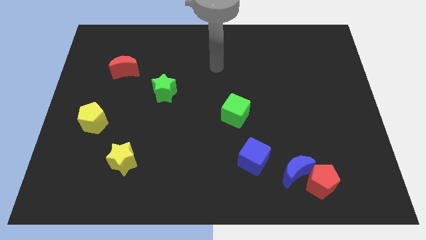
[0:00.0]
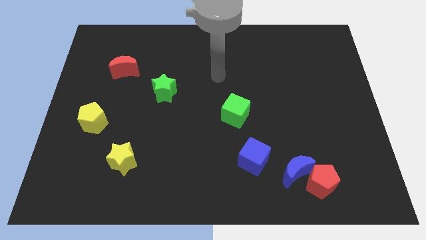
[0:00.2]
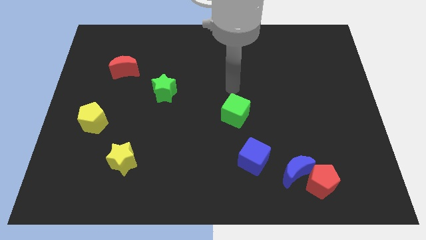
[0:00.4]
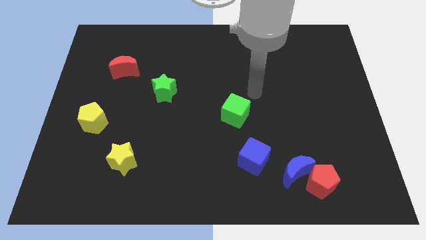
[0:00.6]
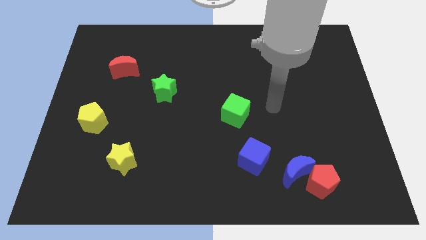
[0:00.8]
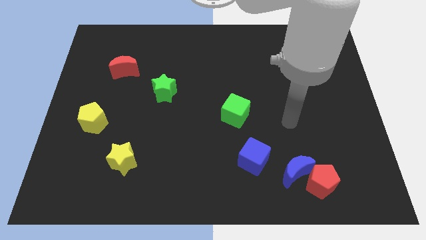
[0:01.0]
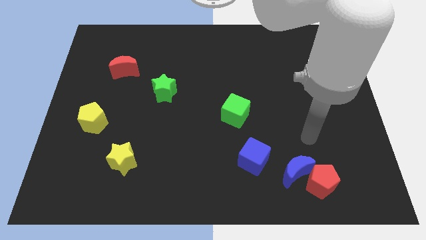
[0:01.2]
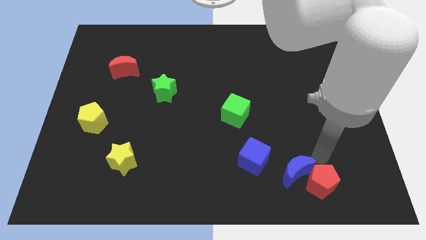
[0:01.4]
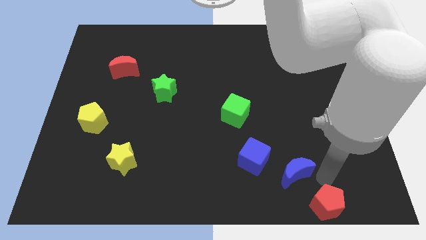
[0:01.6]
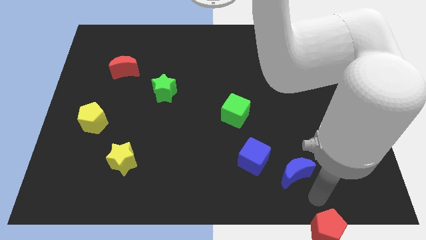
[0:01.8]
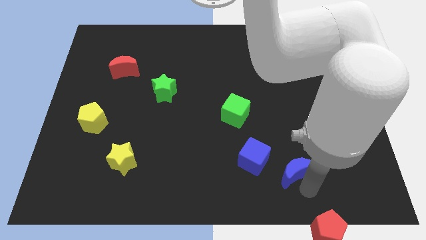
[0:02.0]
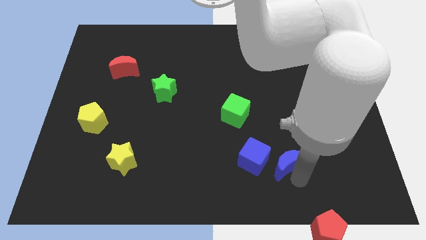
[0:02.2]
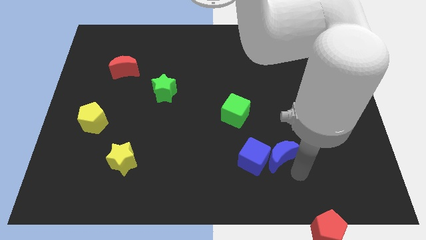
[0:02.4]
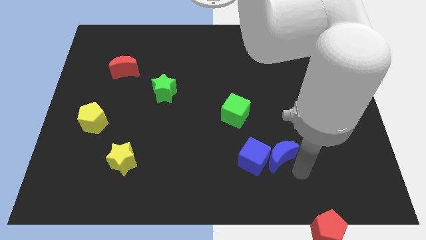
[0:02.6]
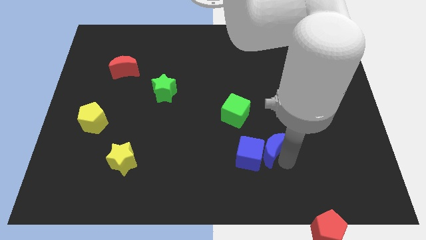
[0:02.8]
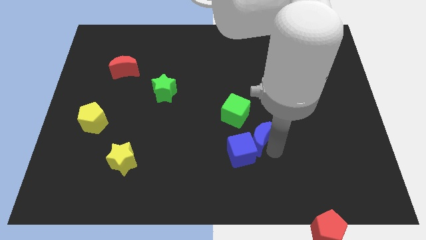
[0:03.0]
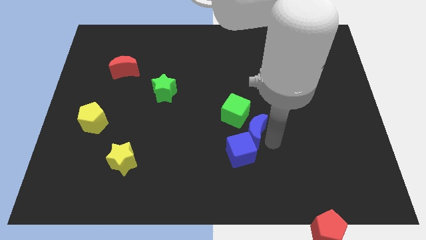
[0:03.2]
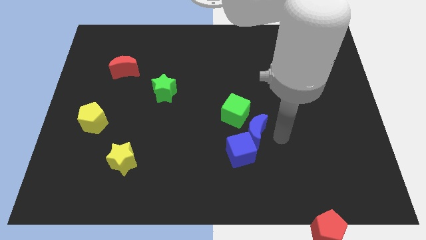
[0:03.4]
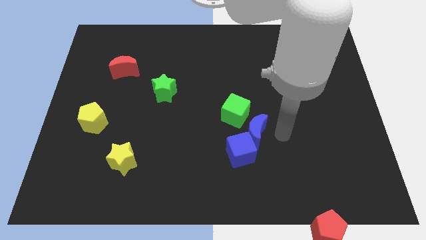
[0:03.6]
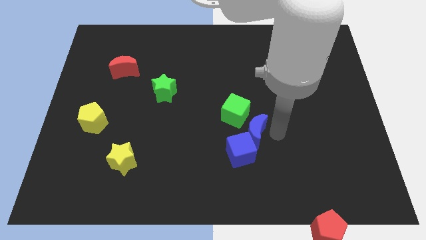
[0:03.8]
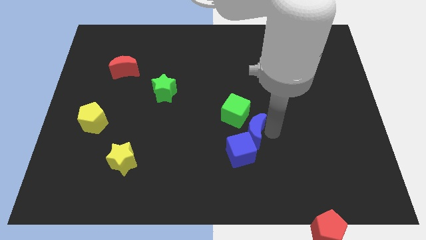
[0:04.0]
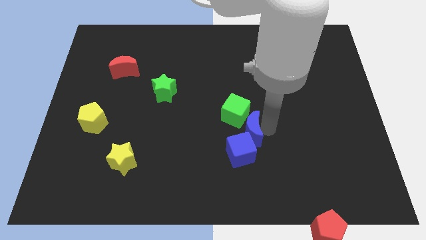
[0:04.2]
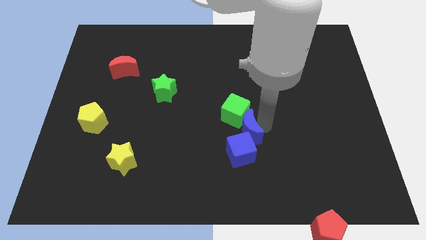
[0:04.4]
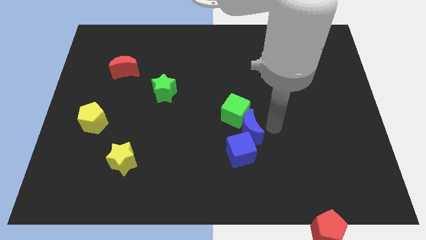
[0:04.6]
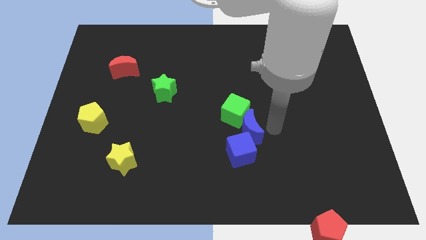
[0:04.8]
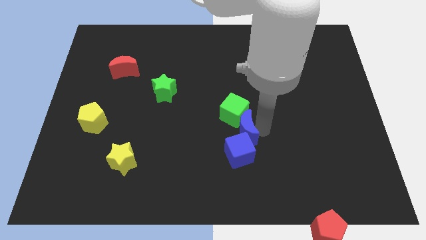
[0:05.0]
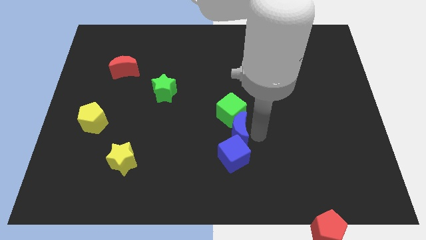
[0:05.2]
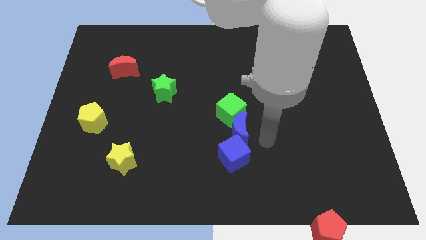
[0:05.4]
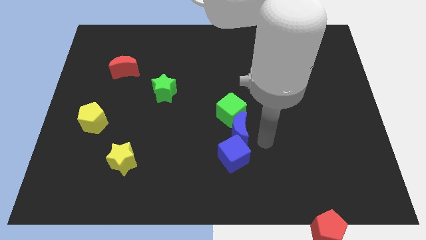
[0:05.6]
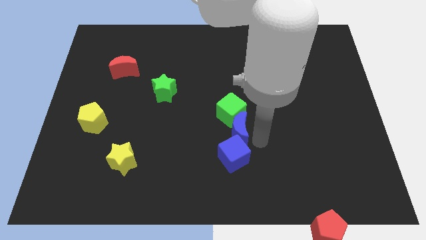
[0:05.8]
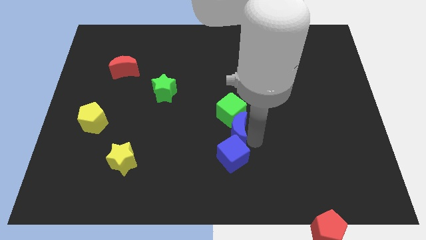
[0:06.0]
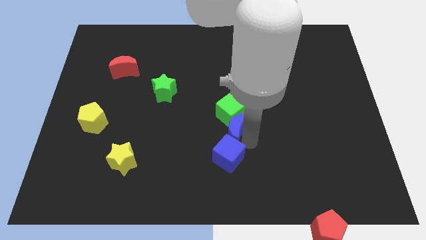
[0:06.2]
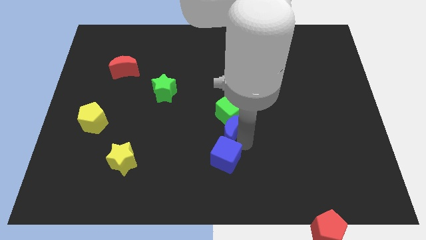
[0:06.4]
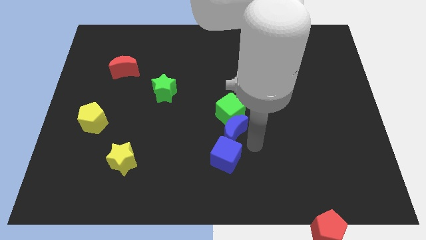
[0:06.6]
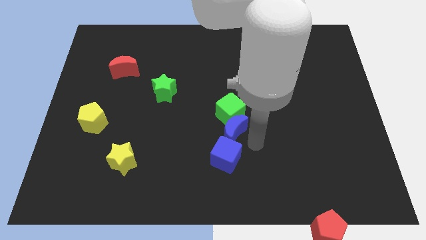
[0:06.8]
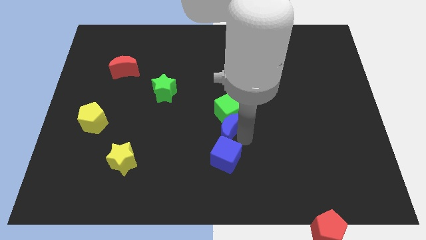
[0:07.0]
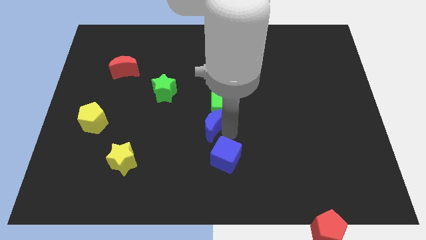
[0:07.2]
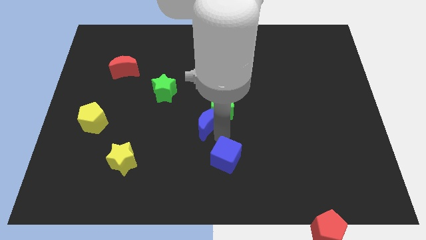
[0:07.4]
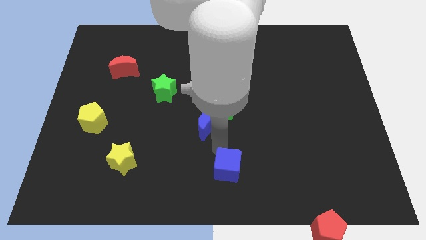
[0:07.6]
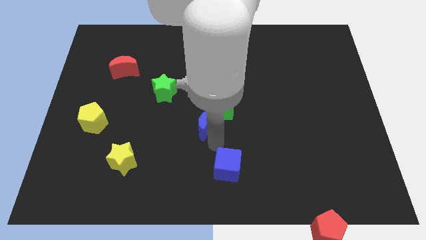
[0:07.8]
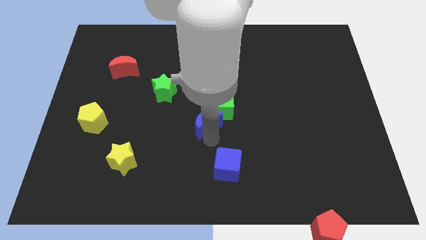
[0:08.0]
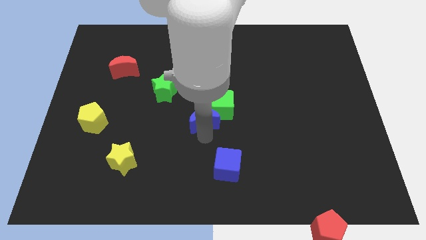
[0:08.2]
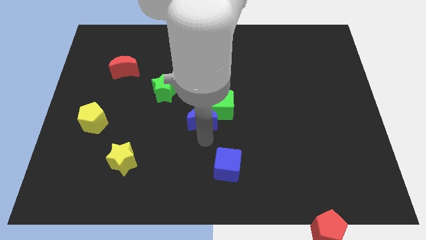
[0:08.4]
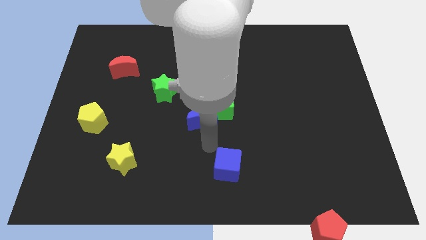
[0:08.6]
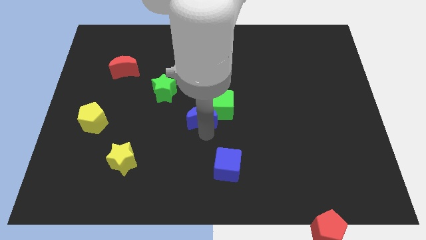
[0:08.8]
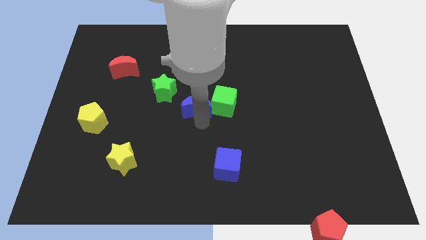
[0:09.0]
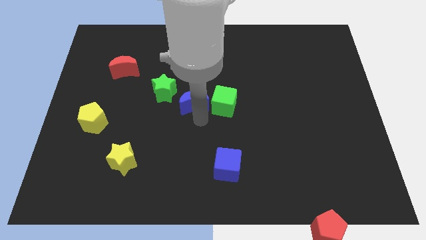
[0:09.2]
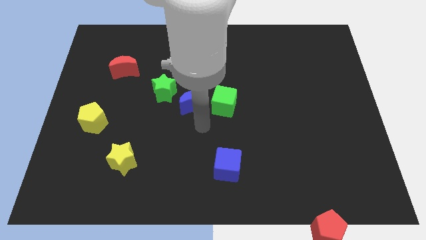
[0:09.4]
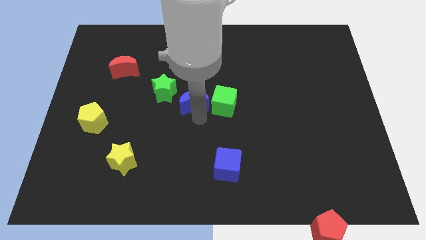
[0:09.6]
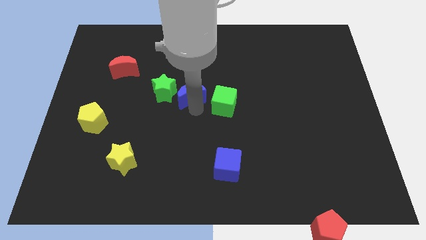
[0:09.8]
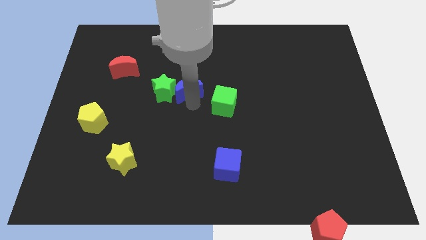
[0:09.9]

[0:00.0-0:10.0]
push the blue moon diagonally up and to the right of the green star

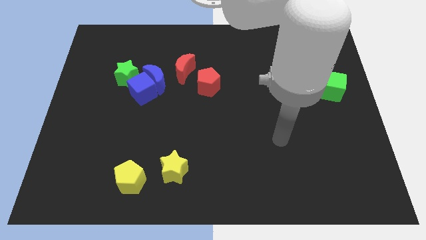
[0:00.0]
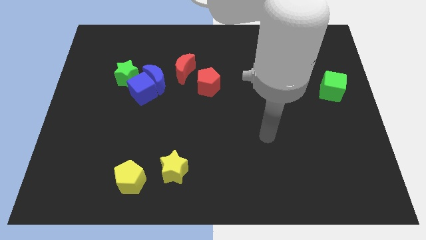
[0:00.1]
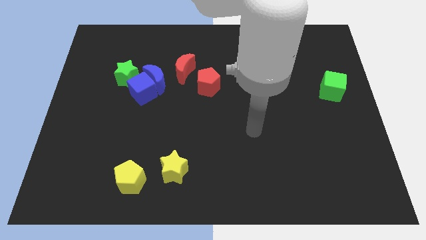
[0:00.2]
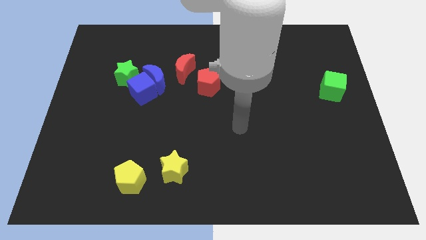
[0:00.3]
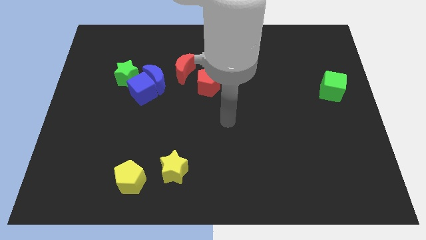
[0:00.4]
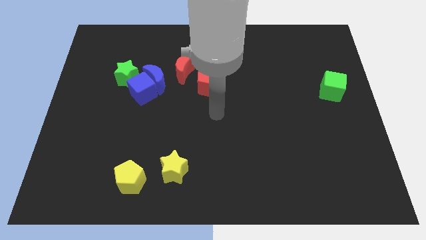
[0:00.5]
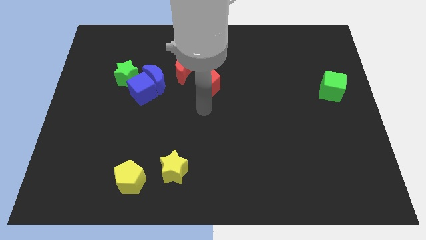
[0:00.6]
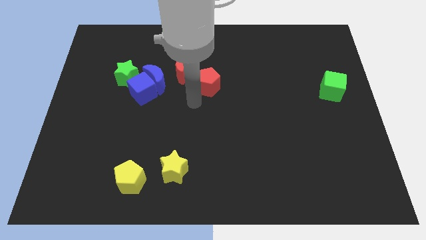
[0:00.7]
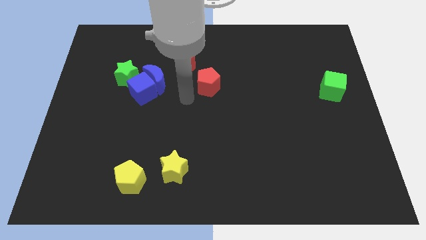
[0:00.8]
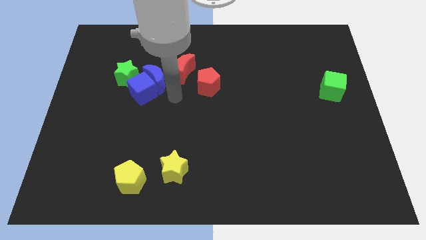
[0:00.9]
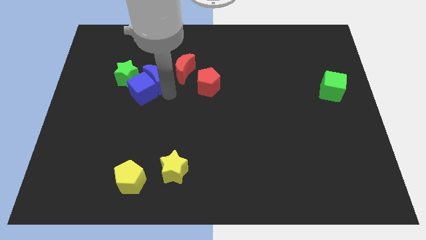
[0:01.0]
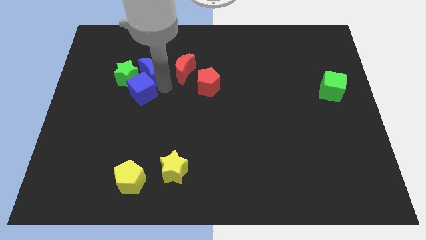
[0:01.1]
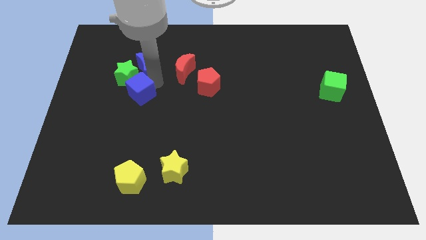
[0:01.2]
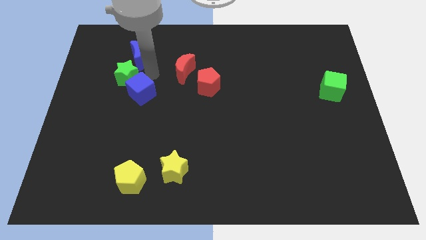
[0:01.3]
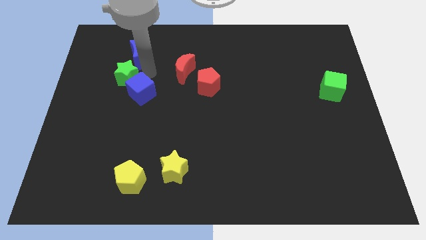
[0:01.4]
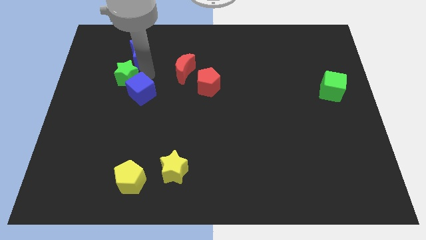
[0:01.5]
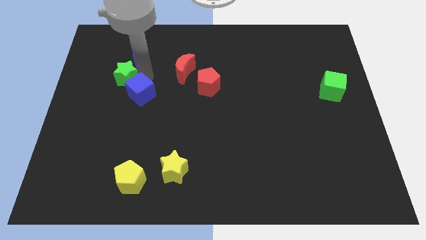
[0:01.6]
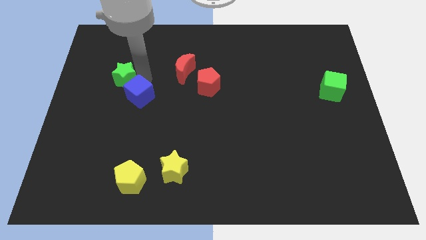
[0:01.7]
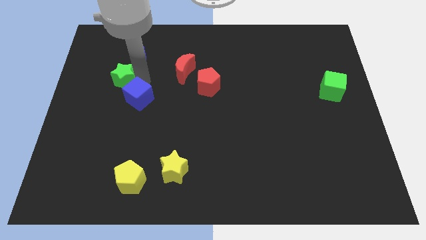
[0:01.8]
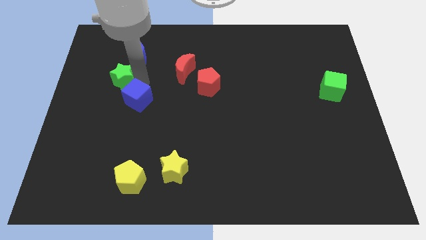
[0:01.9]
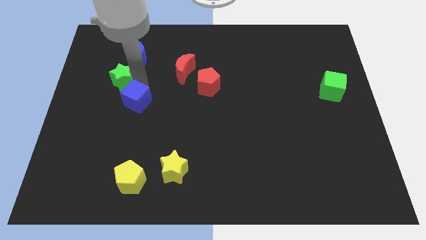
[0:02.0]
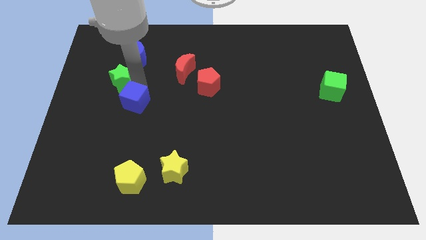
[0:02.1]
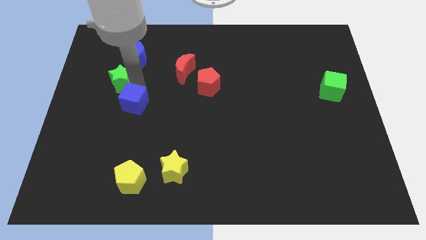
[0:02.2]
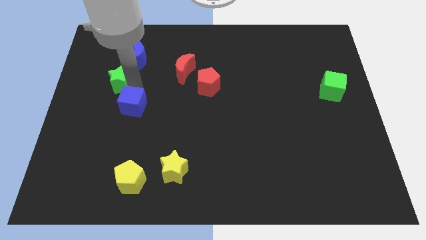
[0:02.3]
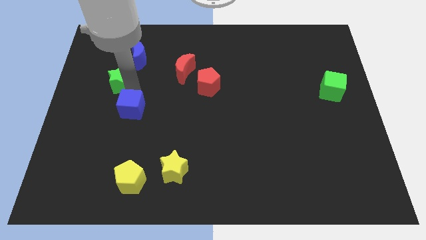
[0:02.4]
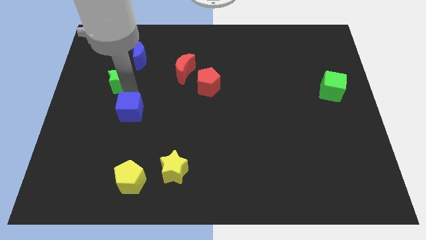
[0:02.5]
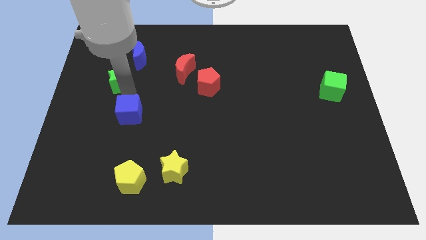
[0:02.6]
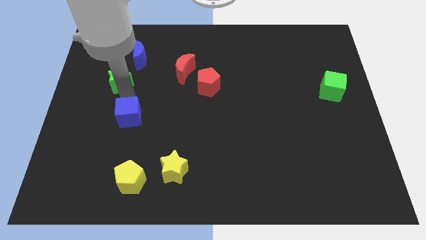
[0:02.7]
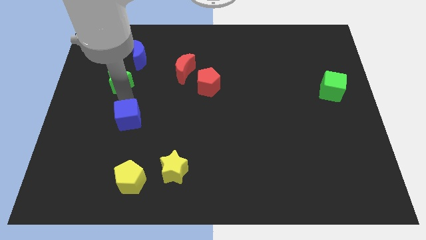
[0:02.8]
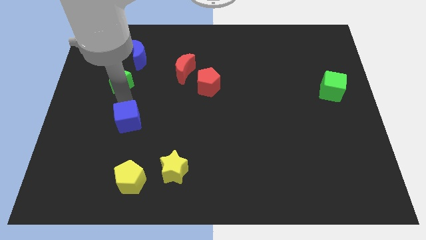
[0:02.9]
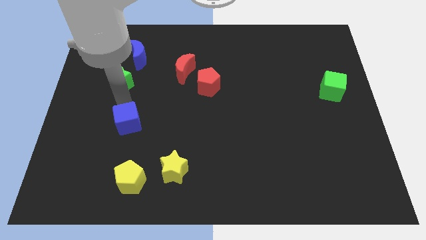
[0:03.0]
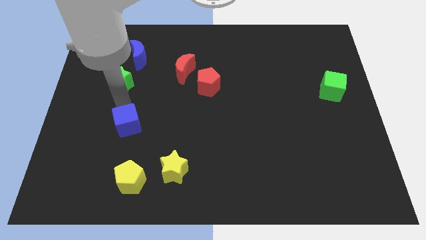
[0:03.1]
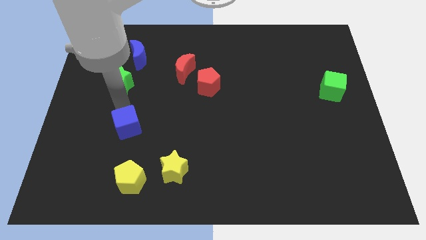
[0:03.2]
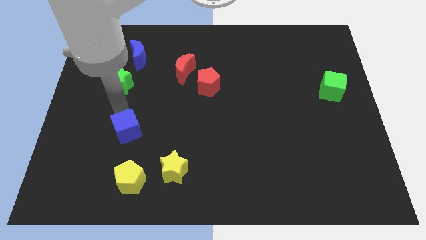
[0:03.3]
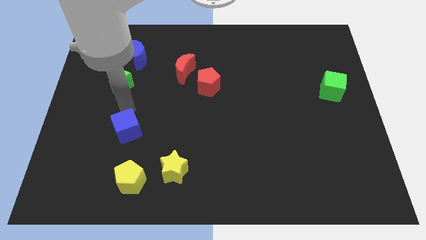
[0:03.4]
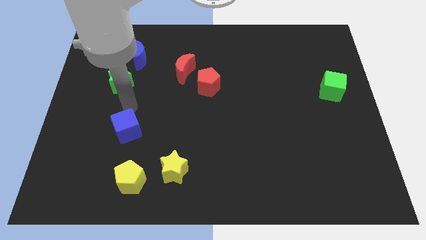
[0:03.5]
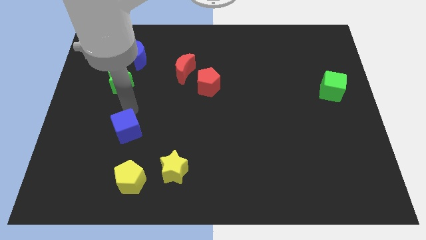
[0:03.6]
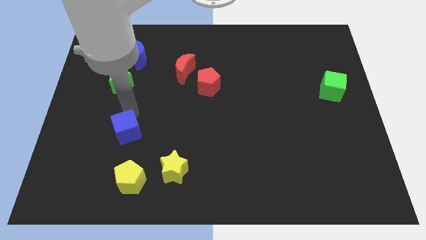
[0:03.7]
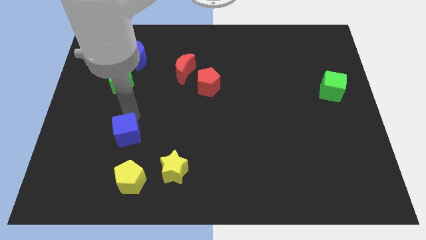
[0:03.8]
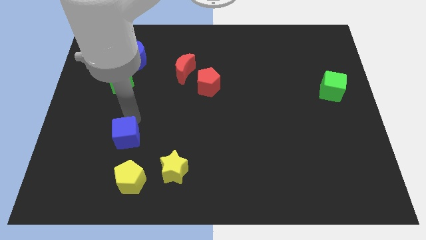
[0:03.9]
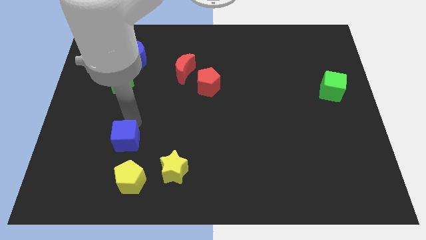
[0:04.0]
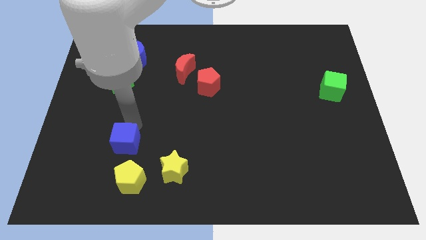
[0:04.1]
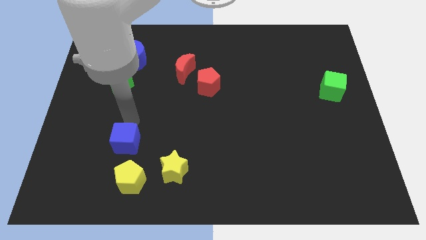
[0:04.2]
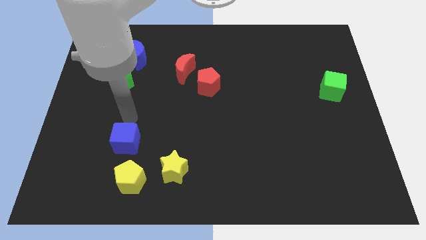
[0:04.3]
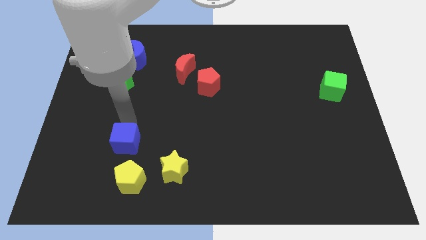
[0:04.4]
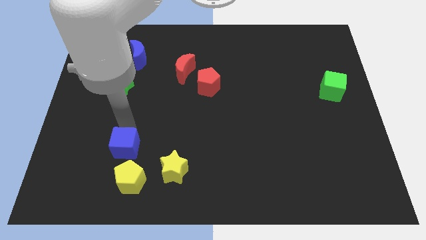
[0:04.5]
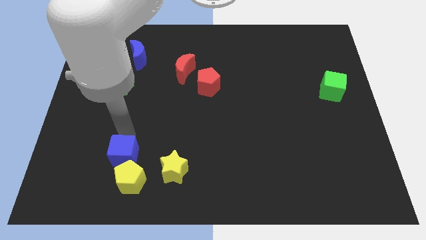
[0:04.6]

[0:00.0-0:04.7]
slide the blue cube to the left of the yellow star
